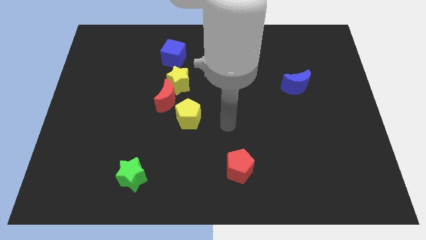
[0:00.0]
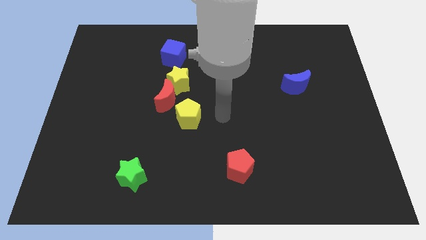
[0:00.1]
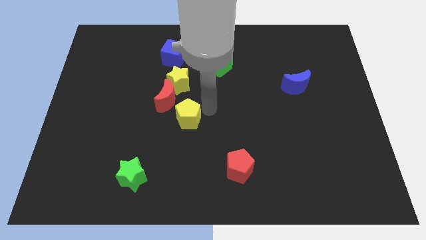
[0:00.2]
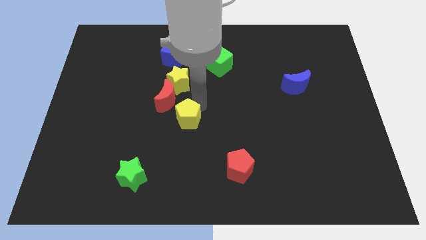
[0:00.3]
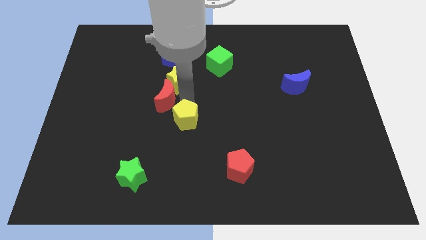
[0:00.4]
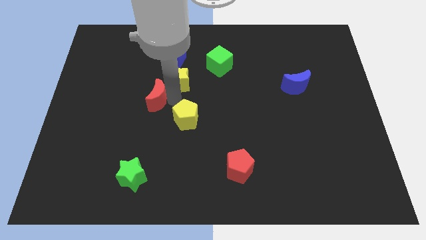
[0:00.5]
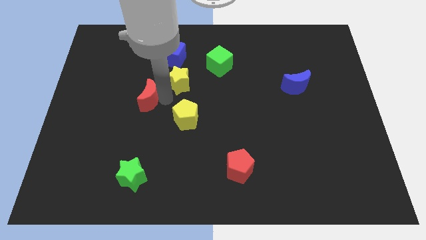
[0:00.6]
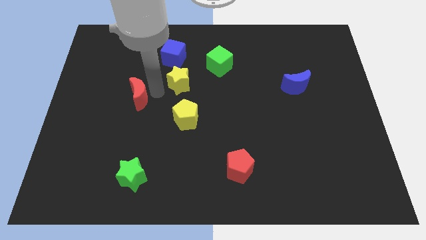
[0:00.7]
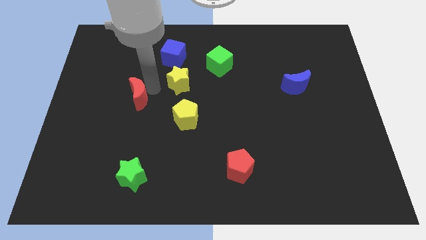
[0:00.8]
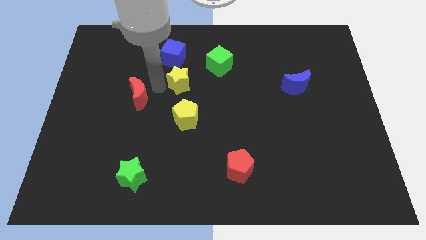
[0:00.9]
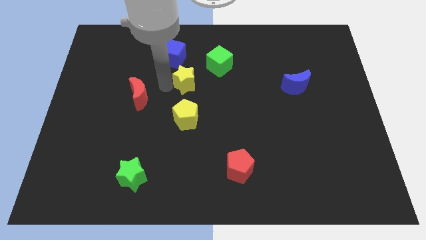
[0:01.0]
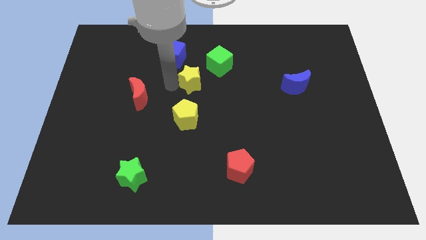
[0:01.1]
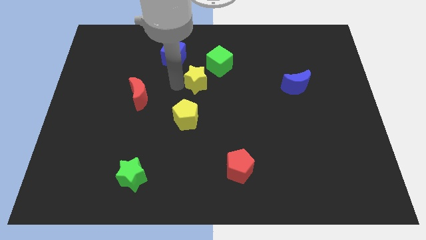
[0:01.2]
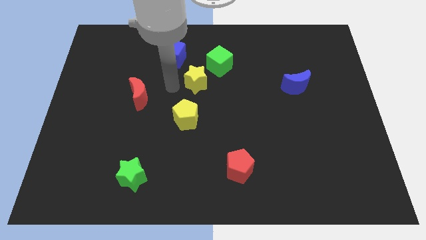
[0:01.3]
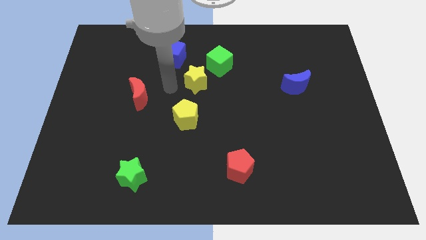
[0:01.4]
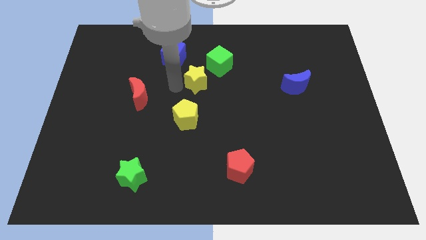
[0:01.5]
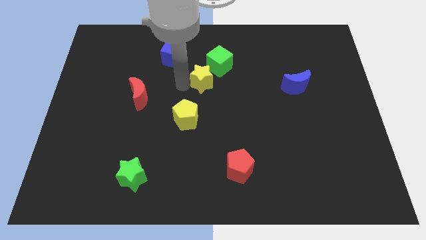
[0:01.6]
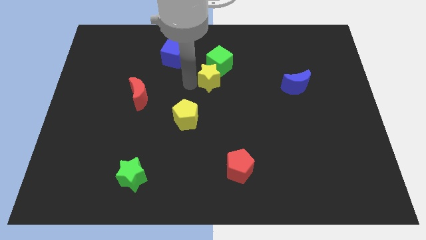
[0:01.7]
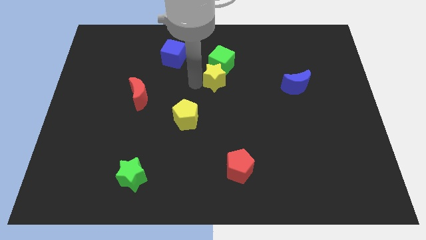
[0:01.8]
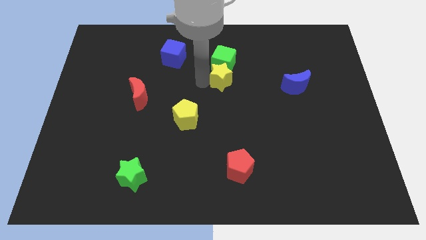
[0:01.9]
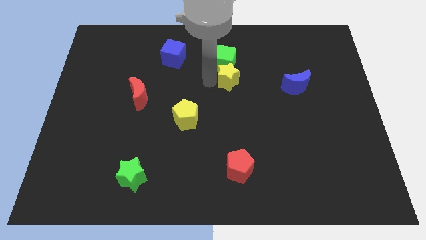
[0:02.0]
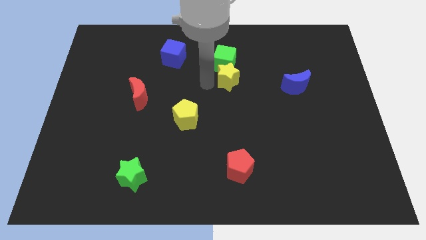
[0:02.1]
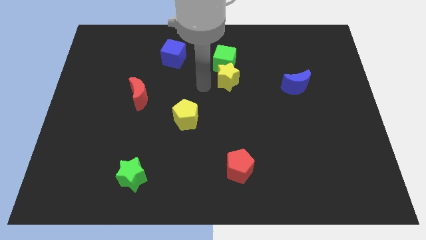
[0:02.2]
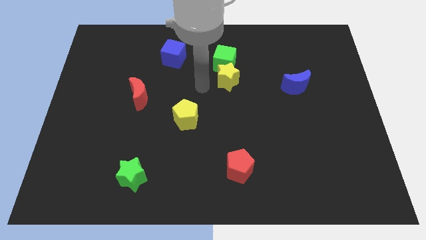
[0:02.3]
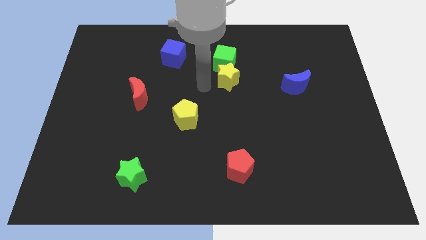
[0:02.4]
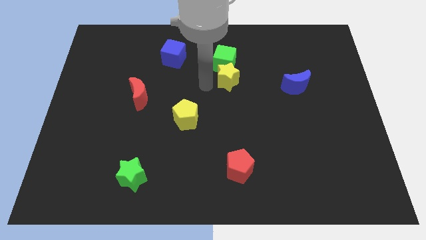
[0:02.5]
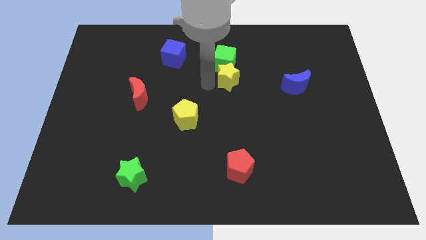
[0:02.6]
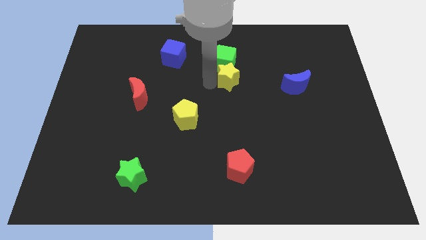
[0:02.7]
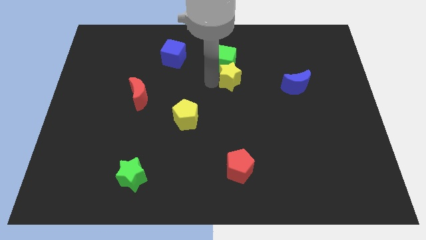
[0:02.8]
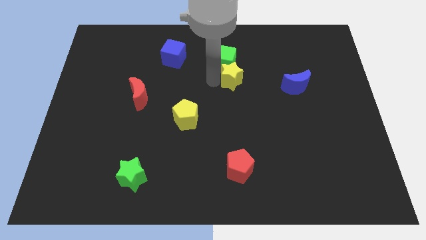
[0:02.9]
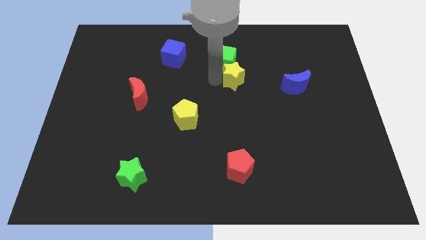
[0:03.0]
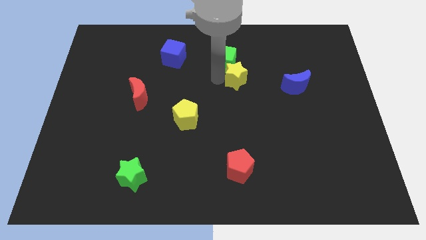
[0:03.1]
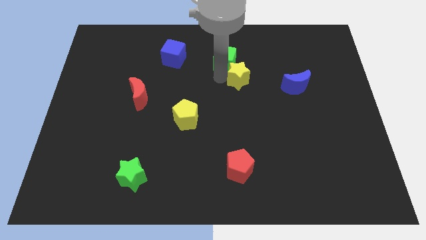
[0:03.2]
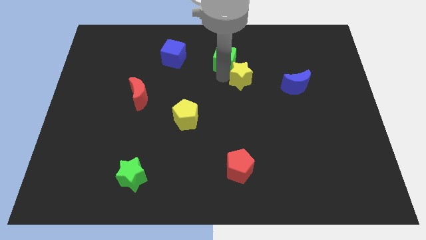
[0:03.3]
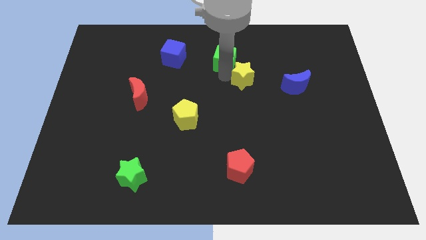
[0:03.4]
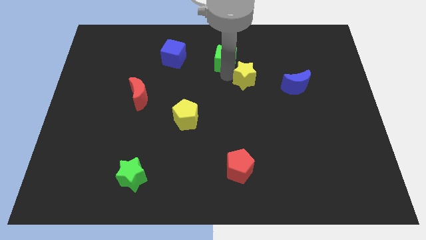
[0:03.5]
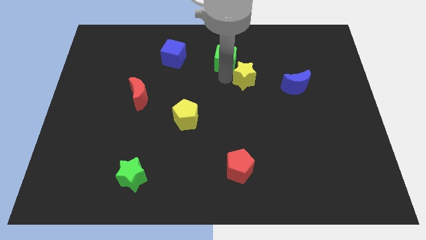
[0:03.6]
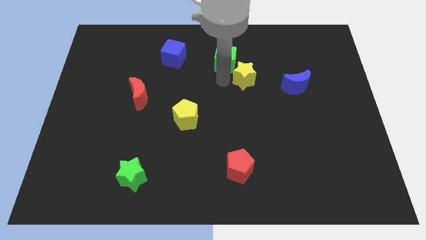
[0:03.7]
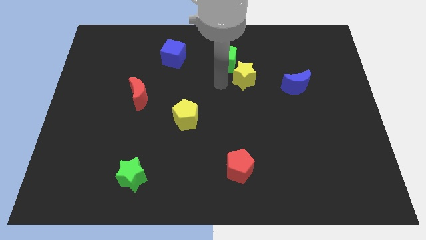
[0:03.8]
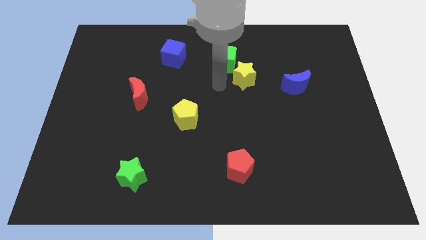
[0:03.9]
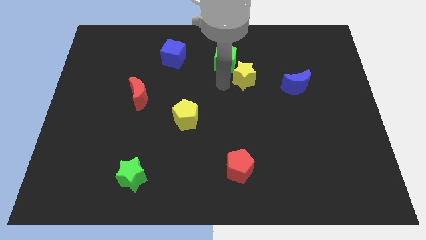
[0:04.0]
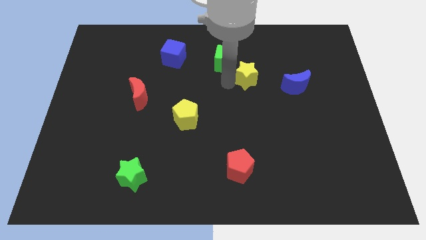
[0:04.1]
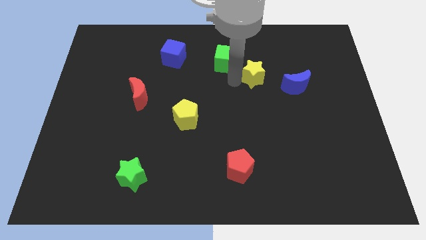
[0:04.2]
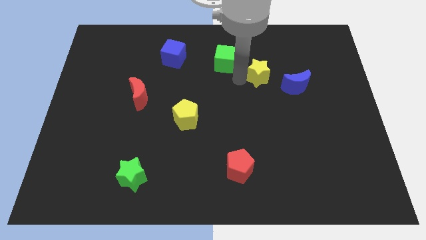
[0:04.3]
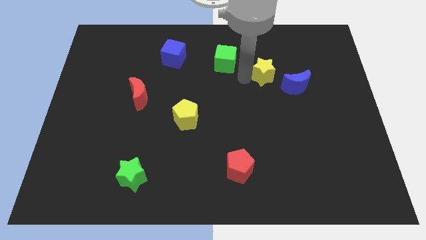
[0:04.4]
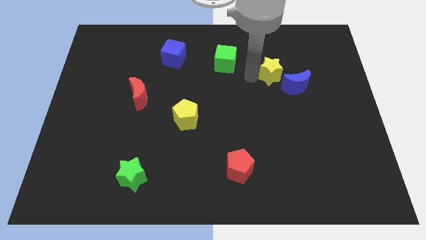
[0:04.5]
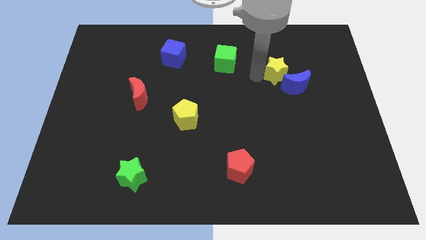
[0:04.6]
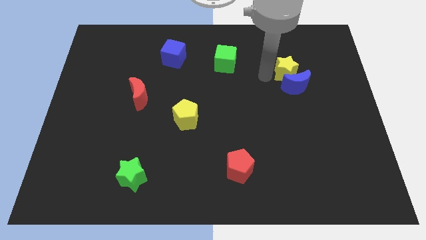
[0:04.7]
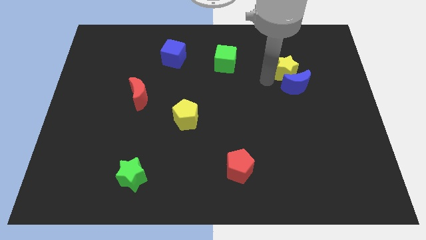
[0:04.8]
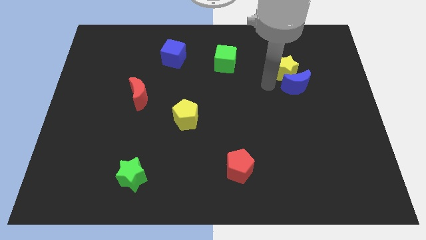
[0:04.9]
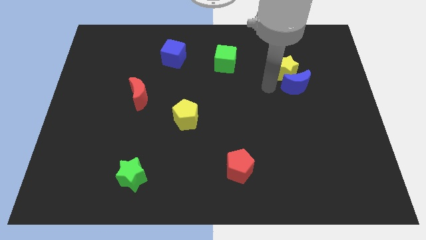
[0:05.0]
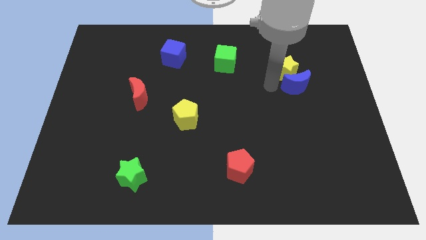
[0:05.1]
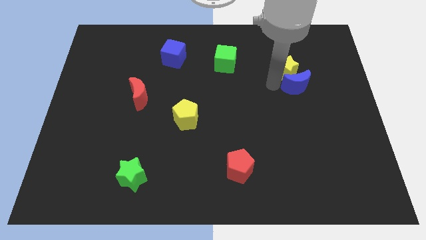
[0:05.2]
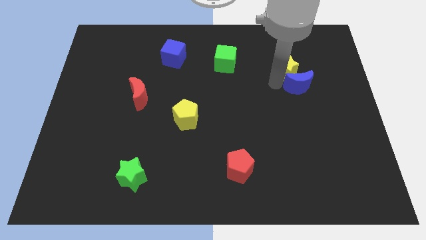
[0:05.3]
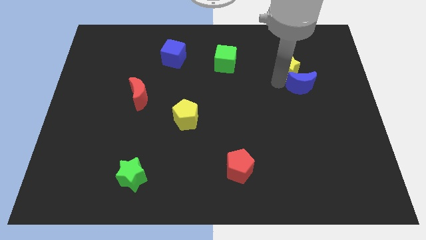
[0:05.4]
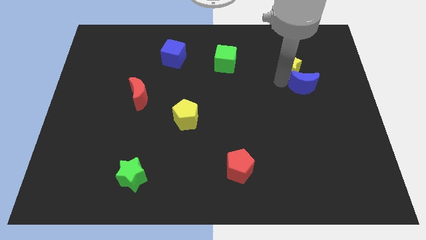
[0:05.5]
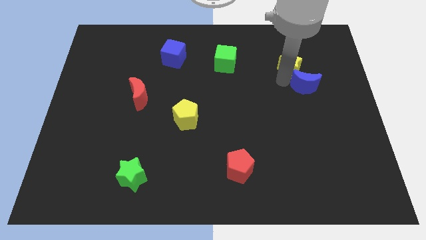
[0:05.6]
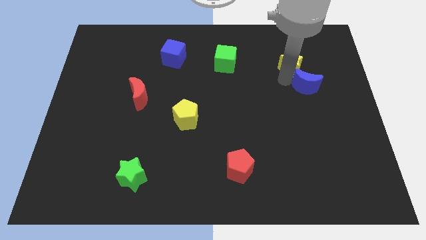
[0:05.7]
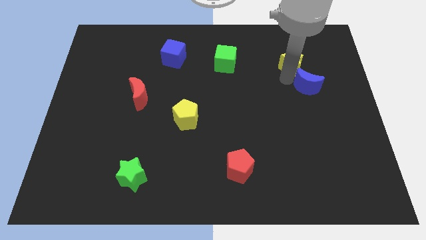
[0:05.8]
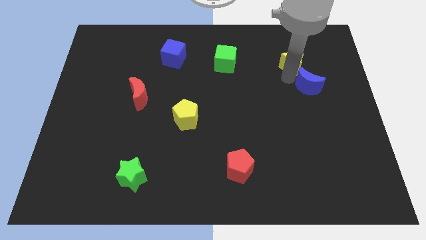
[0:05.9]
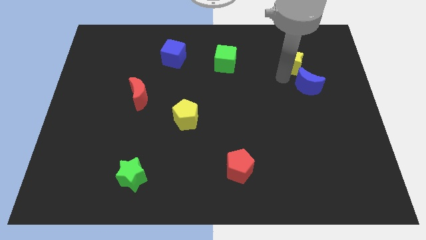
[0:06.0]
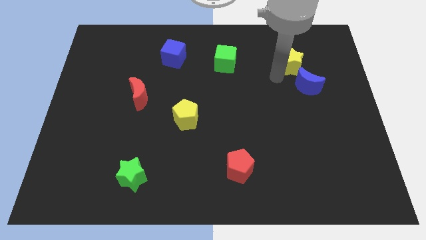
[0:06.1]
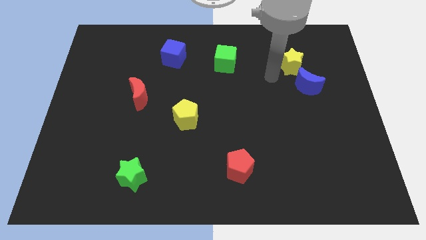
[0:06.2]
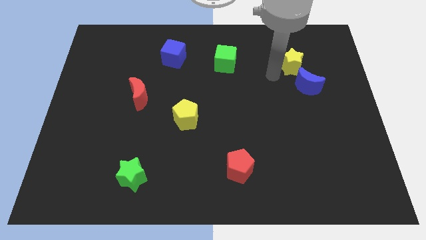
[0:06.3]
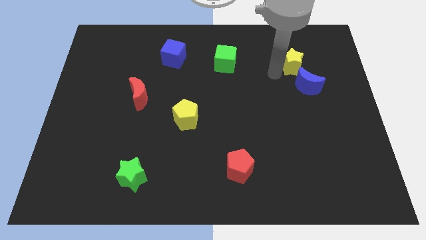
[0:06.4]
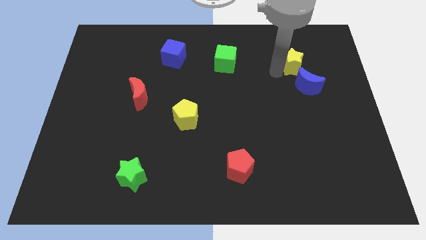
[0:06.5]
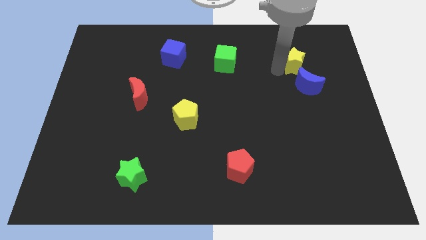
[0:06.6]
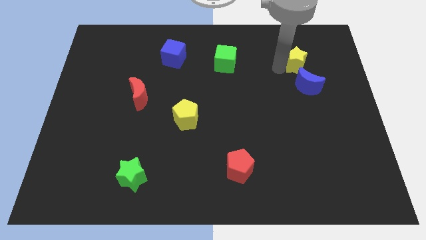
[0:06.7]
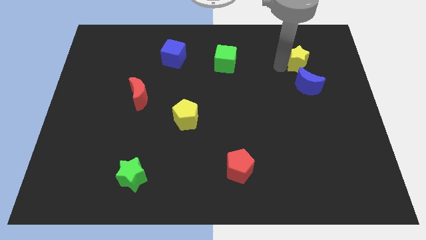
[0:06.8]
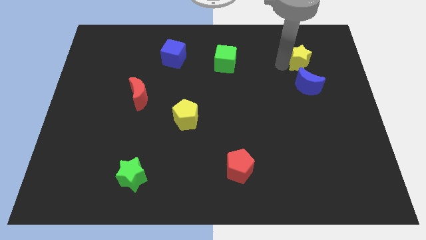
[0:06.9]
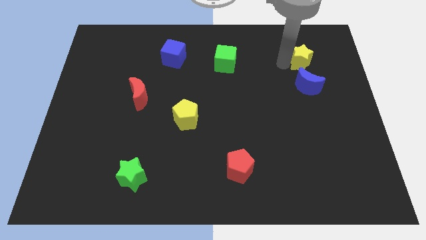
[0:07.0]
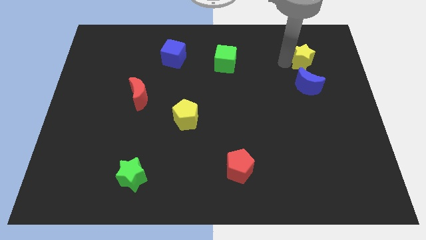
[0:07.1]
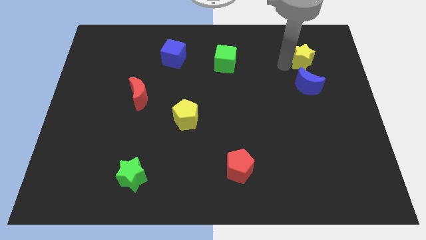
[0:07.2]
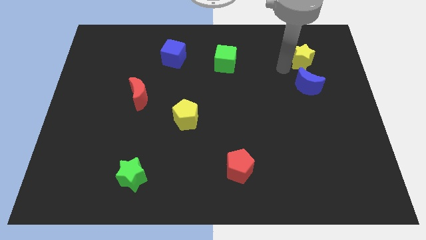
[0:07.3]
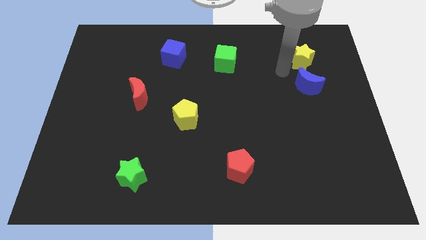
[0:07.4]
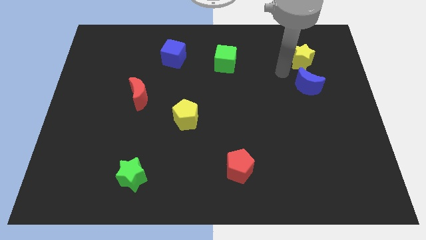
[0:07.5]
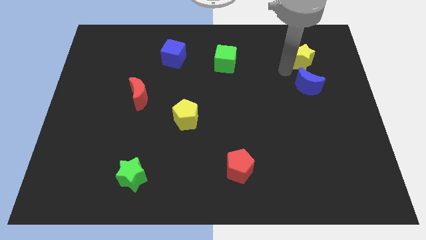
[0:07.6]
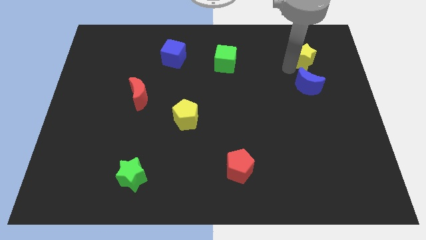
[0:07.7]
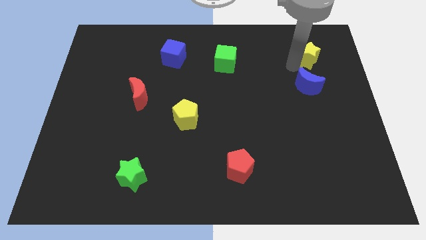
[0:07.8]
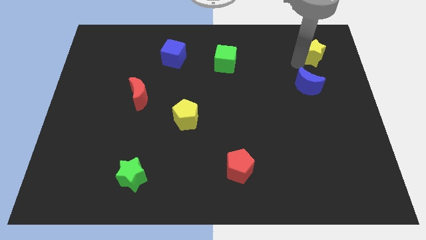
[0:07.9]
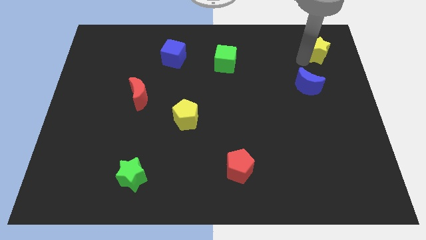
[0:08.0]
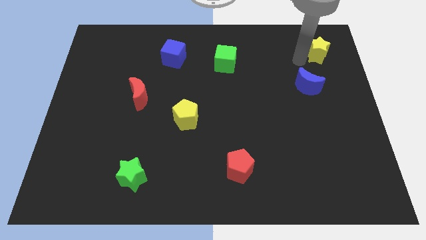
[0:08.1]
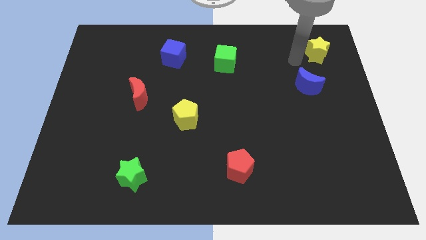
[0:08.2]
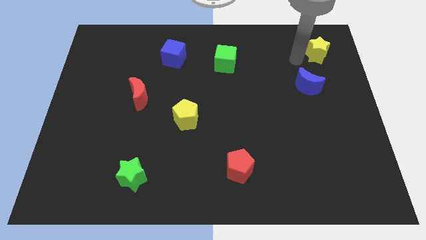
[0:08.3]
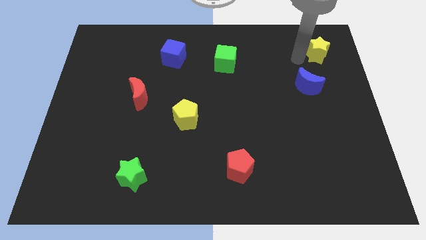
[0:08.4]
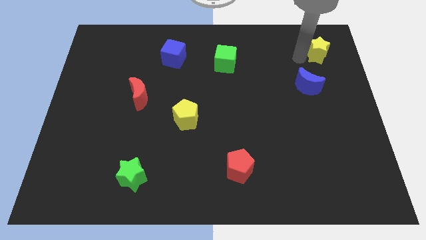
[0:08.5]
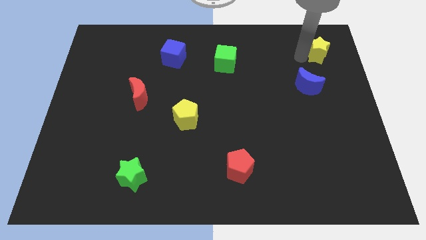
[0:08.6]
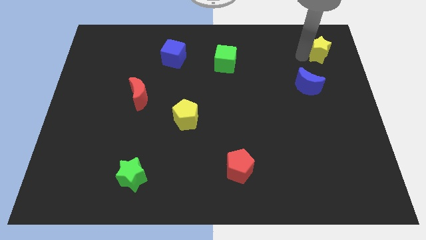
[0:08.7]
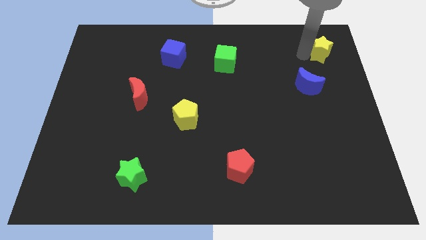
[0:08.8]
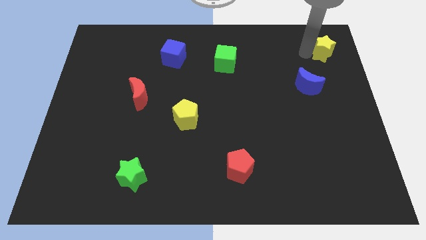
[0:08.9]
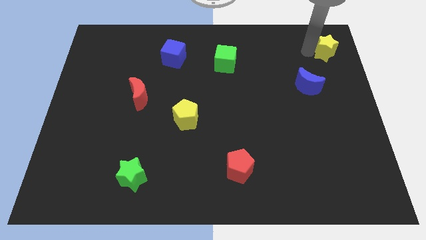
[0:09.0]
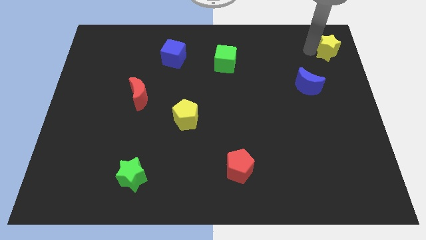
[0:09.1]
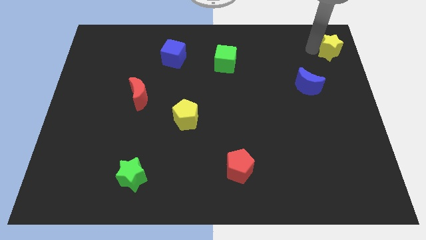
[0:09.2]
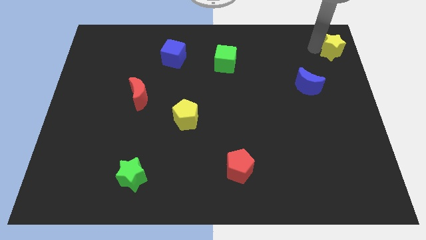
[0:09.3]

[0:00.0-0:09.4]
push the yellow star to the top right of the board
